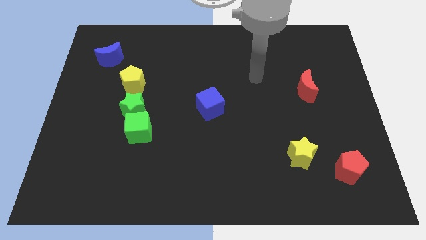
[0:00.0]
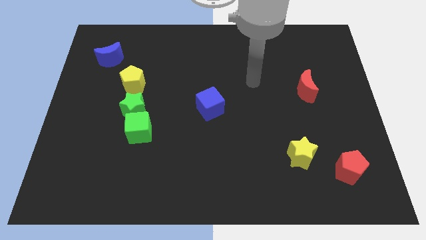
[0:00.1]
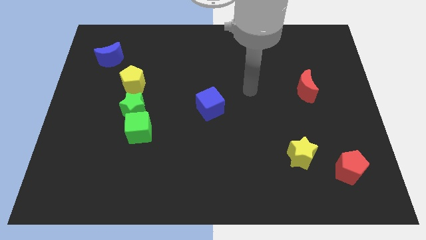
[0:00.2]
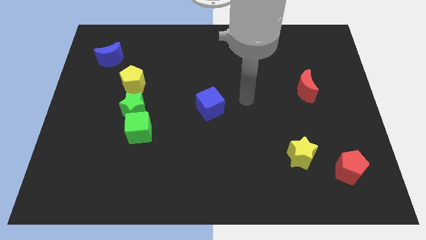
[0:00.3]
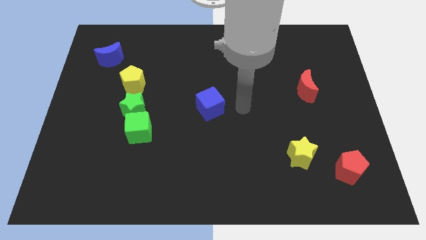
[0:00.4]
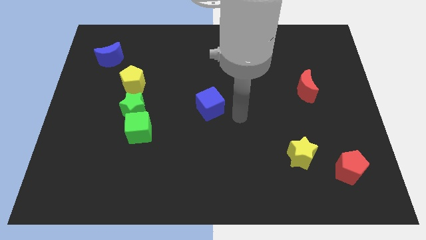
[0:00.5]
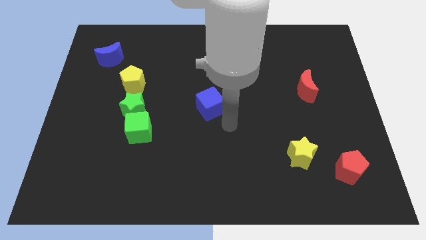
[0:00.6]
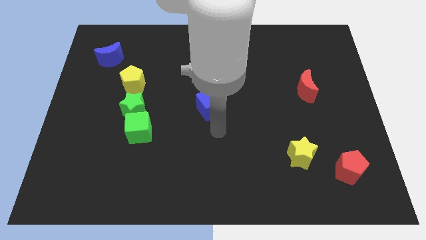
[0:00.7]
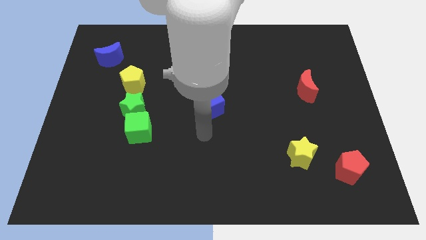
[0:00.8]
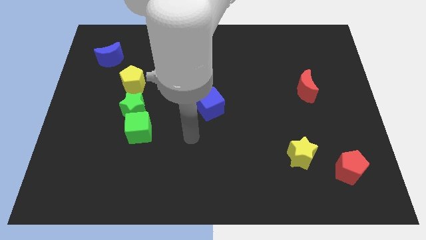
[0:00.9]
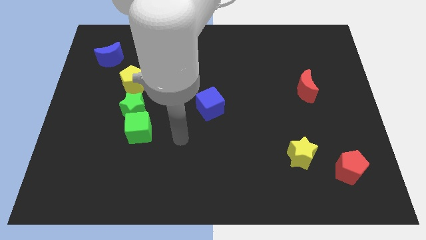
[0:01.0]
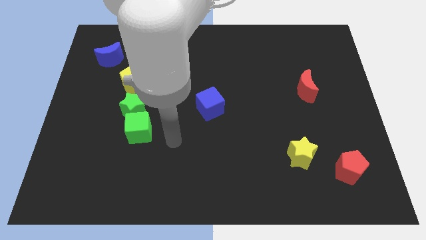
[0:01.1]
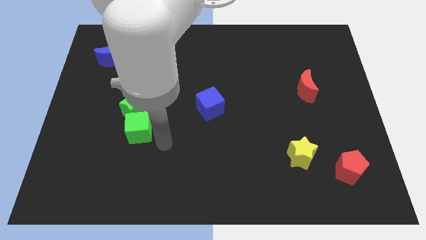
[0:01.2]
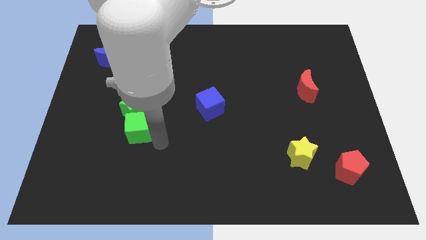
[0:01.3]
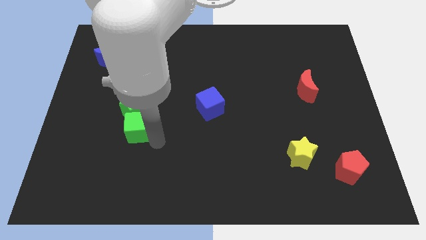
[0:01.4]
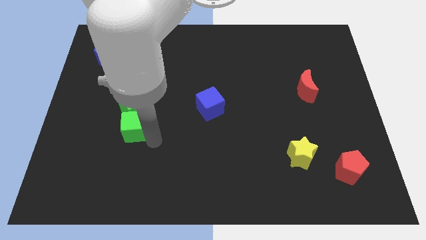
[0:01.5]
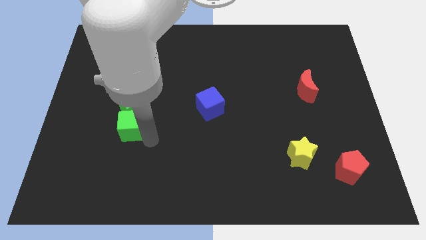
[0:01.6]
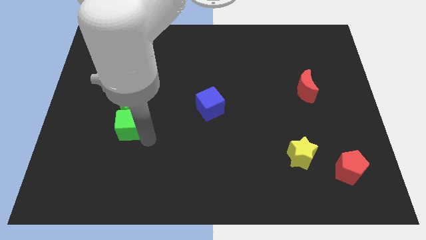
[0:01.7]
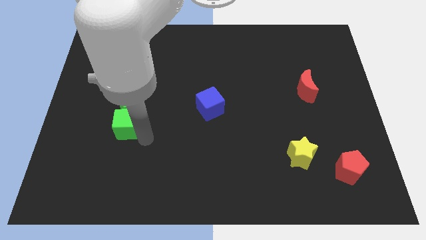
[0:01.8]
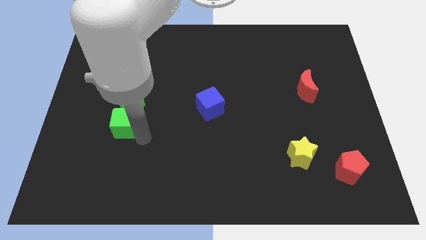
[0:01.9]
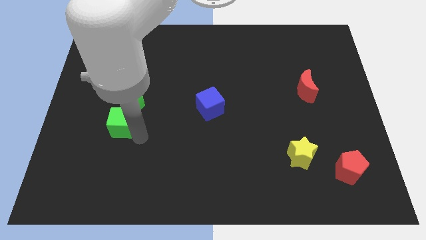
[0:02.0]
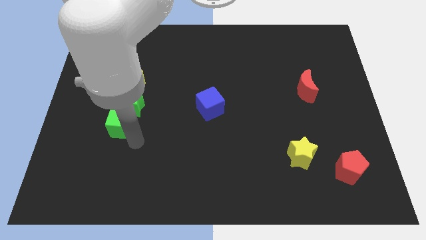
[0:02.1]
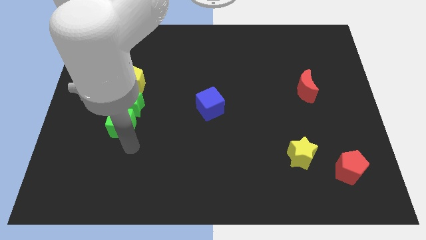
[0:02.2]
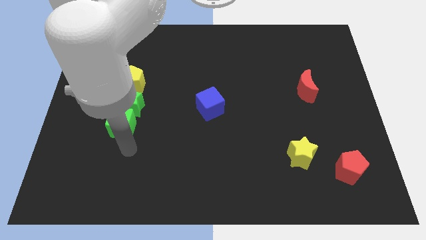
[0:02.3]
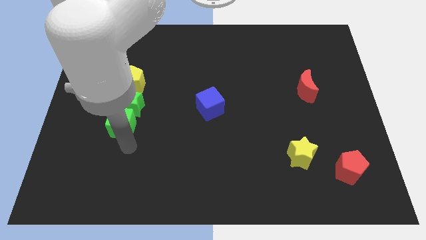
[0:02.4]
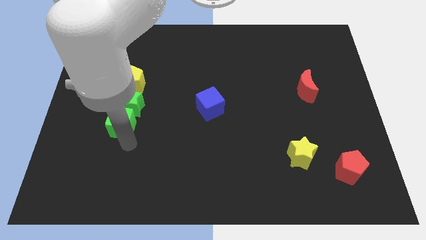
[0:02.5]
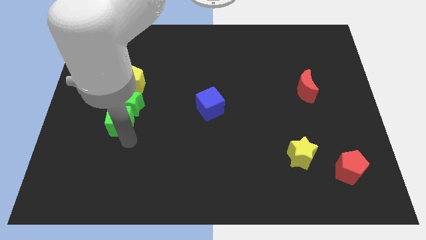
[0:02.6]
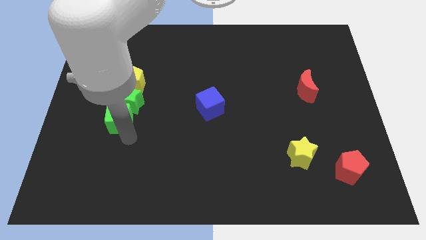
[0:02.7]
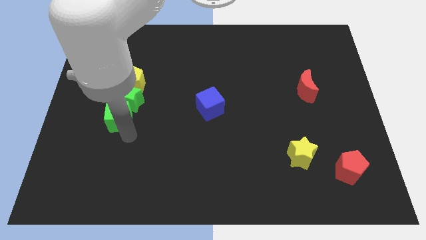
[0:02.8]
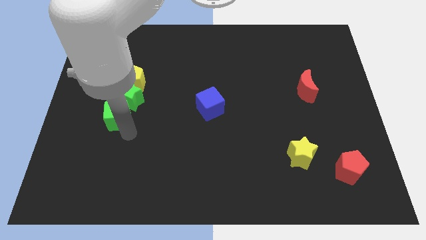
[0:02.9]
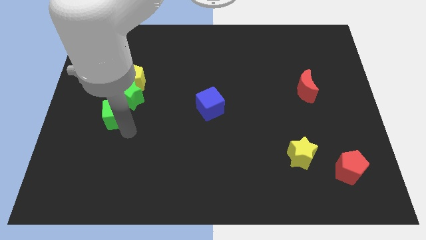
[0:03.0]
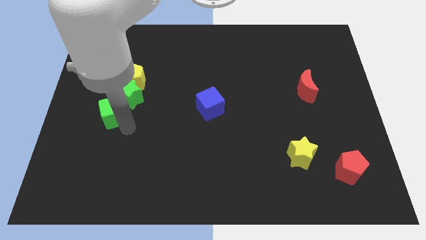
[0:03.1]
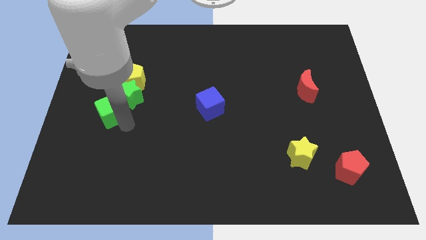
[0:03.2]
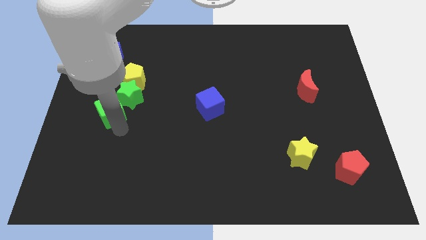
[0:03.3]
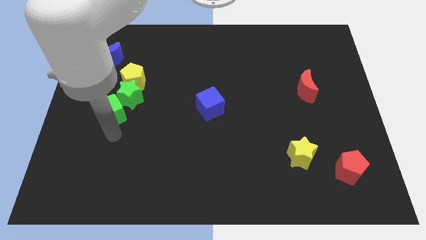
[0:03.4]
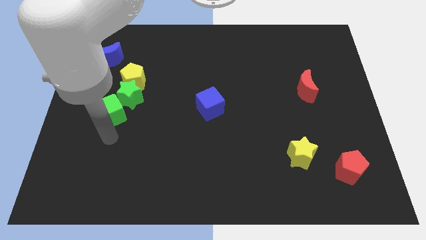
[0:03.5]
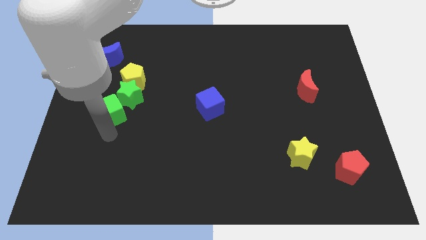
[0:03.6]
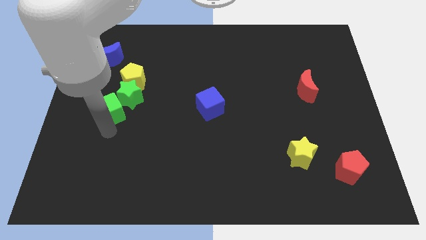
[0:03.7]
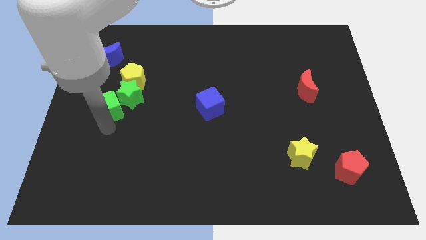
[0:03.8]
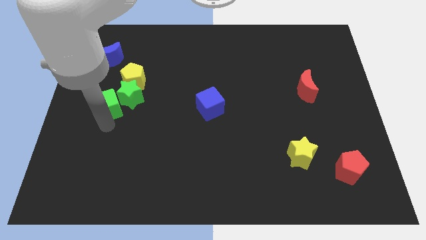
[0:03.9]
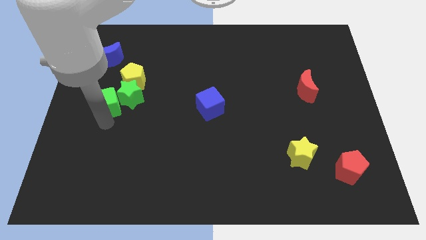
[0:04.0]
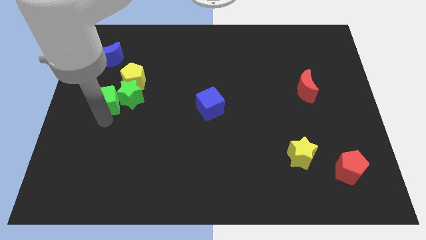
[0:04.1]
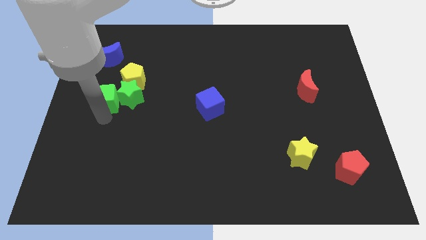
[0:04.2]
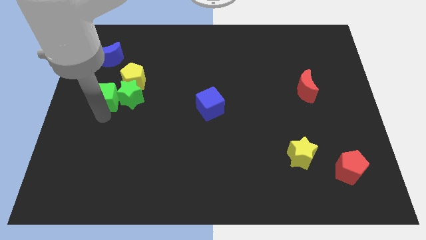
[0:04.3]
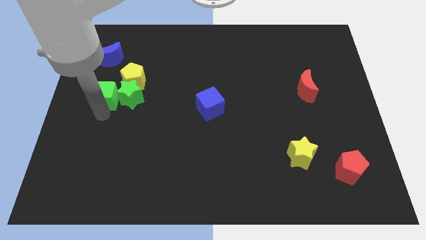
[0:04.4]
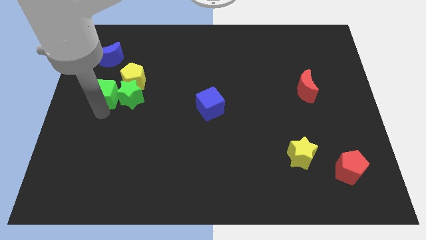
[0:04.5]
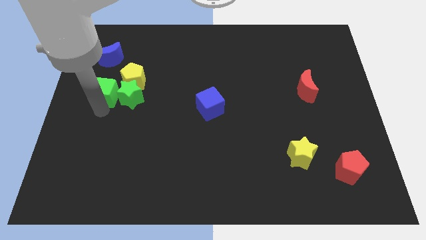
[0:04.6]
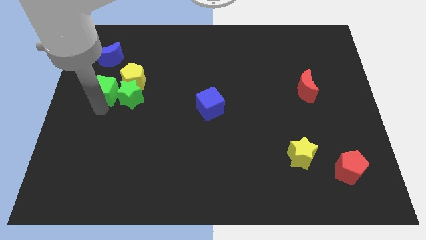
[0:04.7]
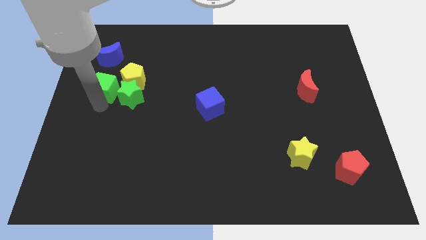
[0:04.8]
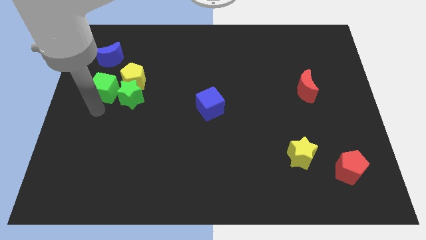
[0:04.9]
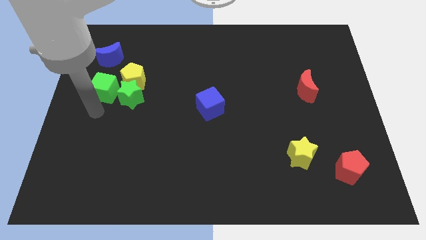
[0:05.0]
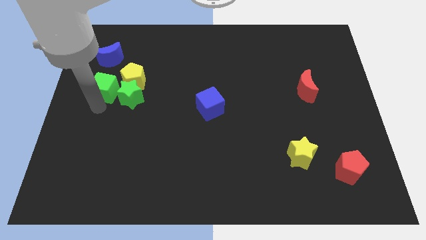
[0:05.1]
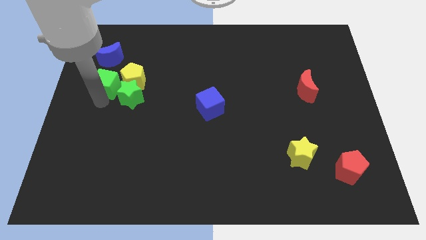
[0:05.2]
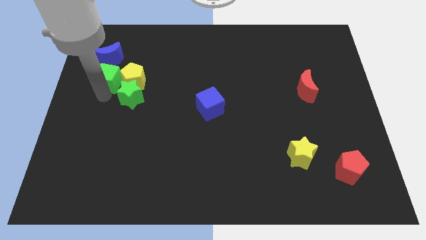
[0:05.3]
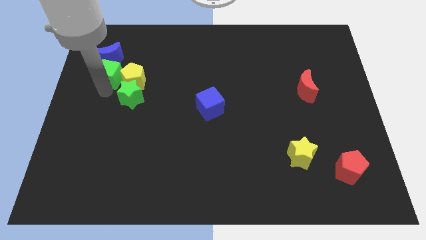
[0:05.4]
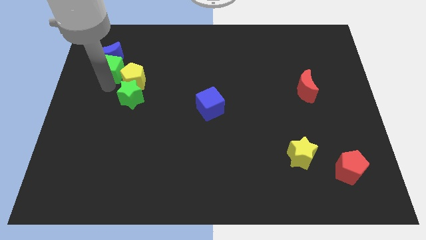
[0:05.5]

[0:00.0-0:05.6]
put the green cube to the blue moon

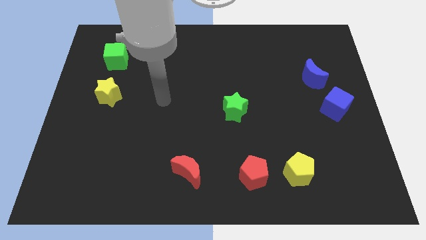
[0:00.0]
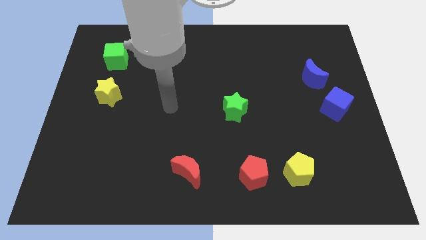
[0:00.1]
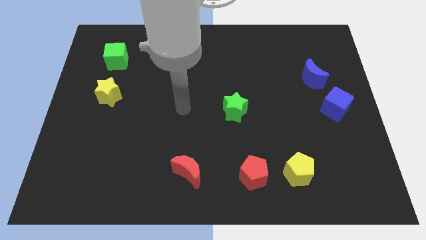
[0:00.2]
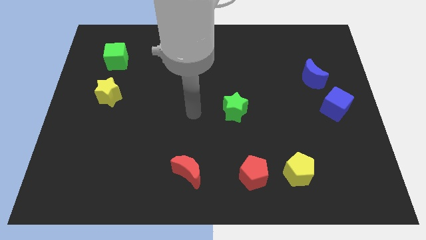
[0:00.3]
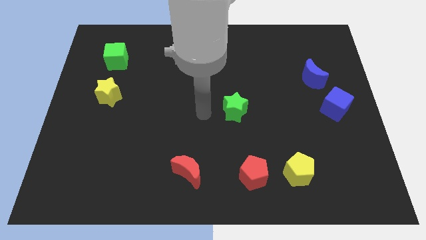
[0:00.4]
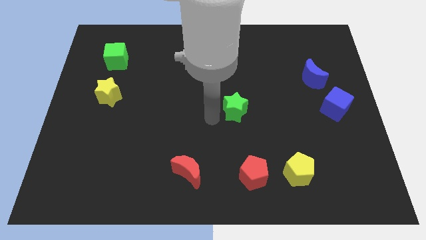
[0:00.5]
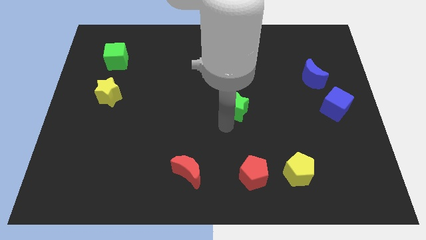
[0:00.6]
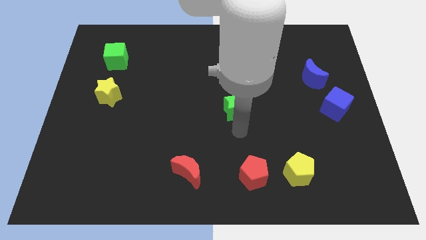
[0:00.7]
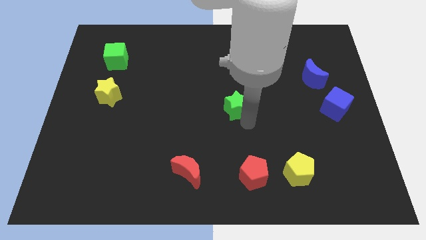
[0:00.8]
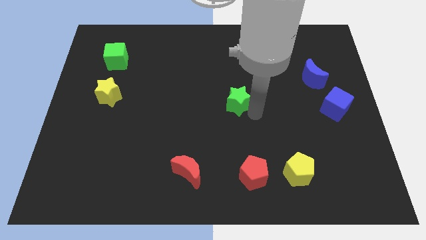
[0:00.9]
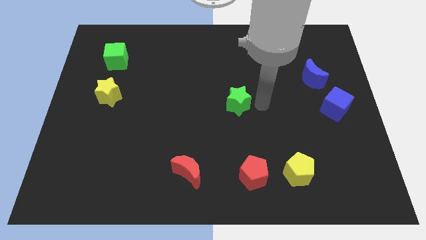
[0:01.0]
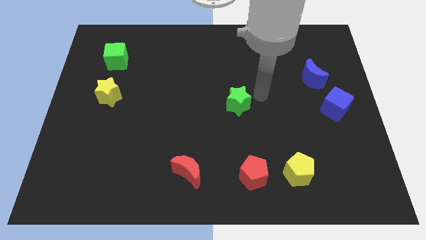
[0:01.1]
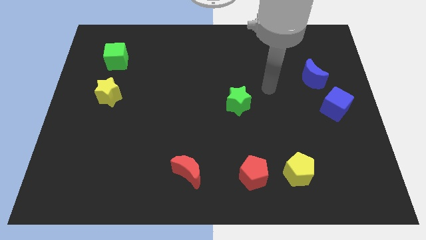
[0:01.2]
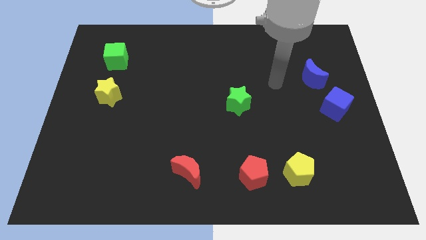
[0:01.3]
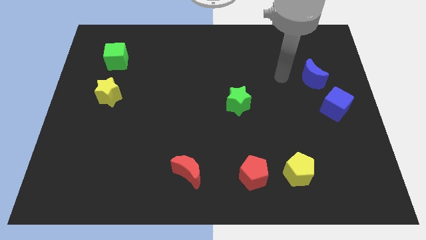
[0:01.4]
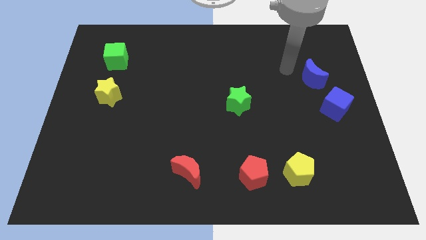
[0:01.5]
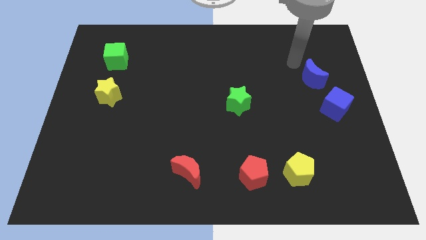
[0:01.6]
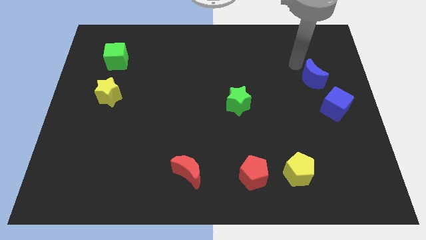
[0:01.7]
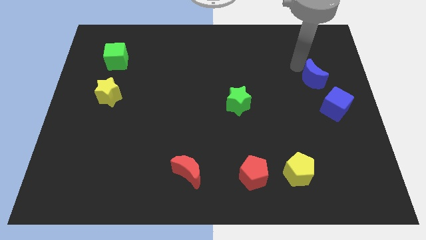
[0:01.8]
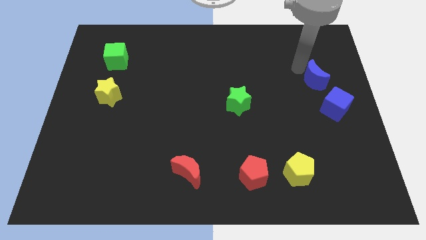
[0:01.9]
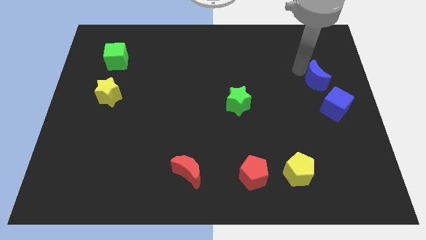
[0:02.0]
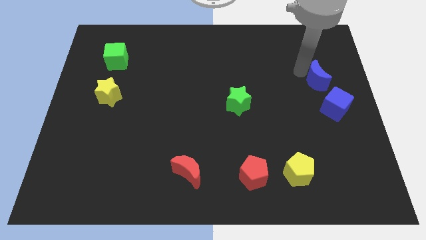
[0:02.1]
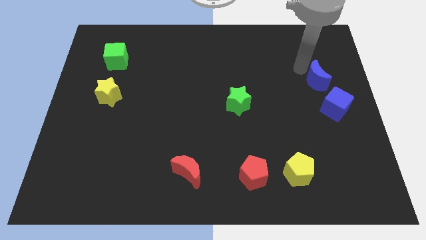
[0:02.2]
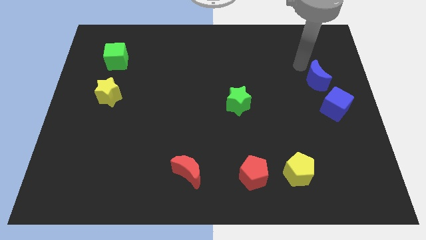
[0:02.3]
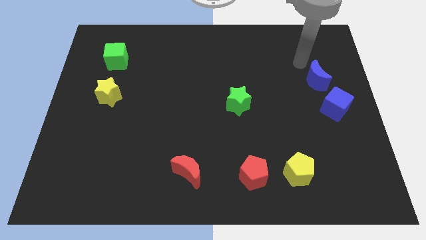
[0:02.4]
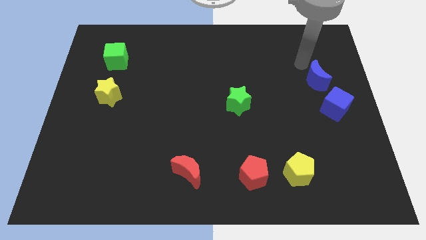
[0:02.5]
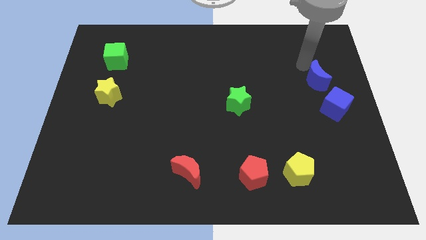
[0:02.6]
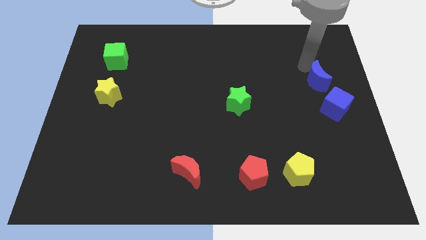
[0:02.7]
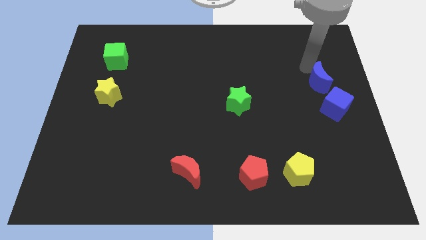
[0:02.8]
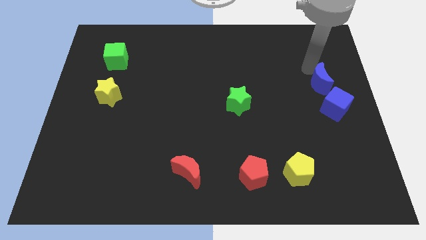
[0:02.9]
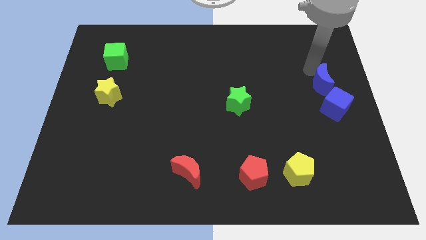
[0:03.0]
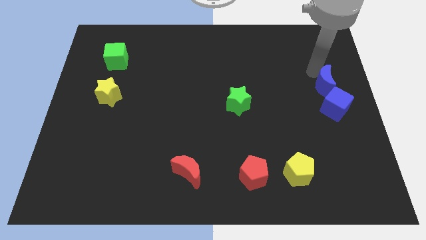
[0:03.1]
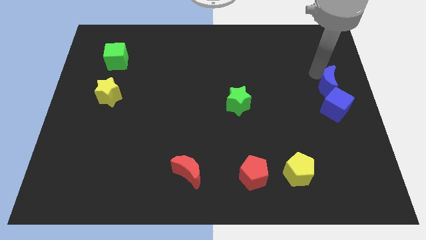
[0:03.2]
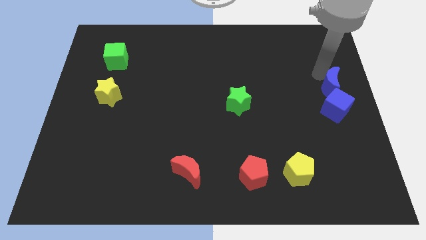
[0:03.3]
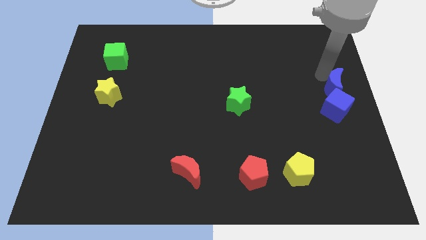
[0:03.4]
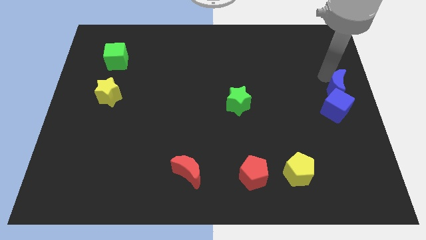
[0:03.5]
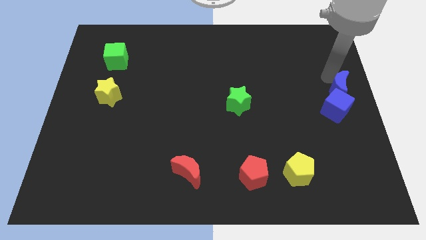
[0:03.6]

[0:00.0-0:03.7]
push the blue moon next to the blue cube
